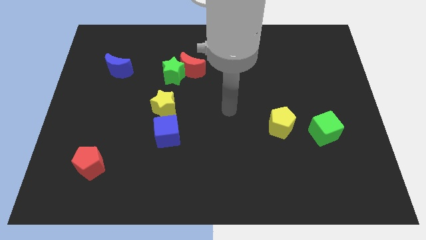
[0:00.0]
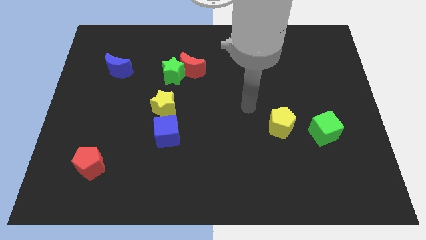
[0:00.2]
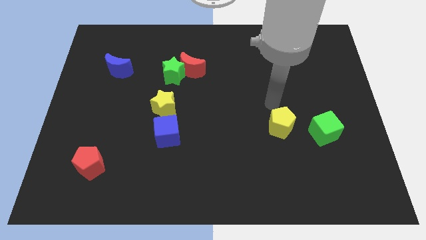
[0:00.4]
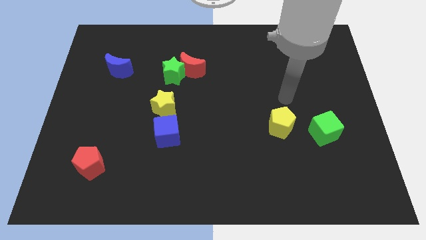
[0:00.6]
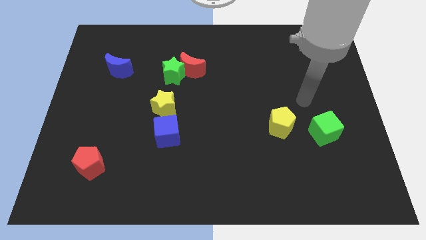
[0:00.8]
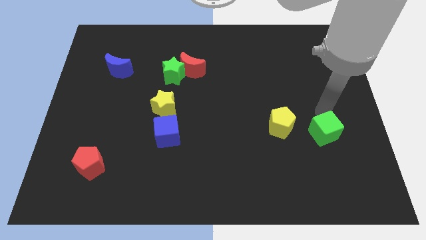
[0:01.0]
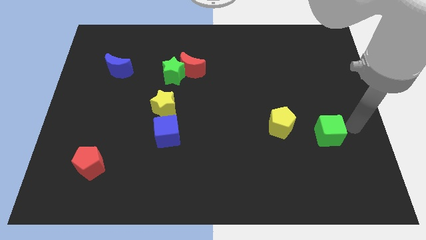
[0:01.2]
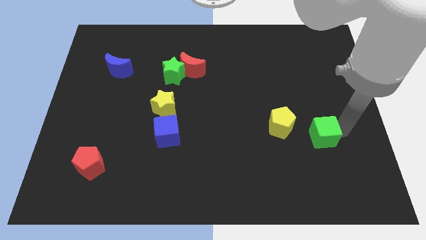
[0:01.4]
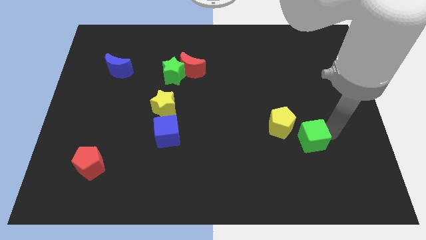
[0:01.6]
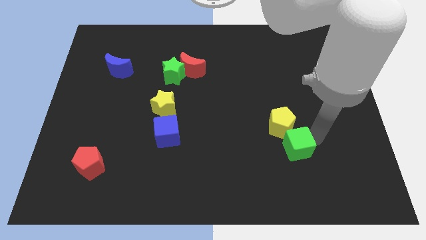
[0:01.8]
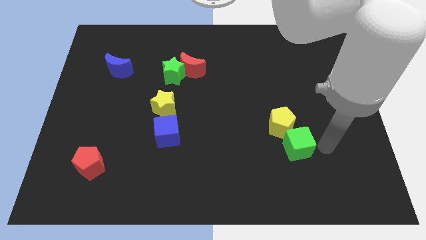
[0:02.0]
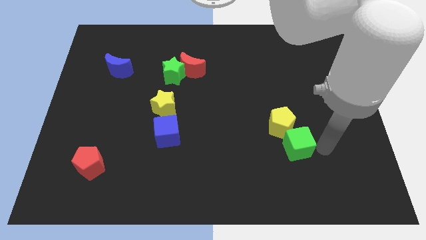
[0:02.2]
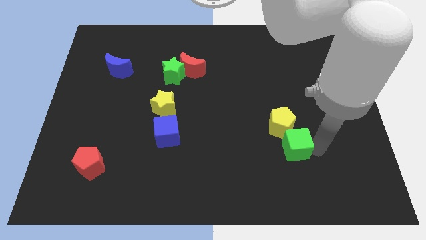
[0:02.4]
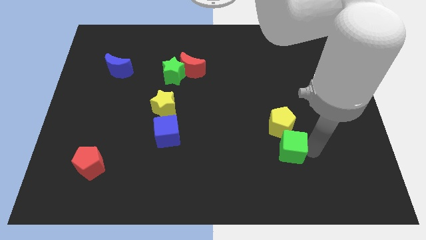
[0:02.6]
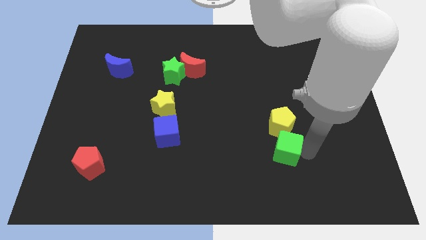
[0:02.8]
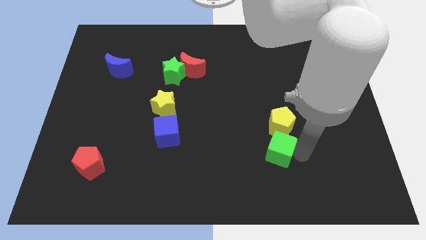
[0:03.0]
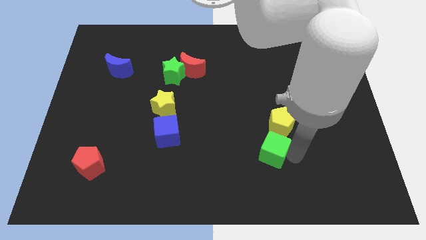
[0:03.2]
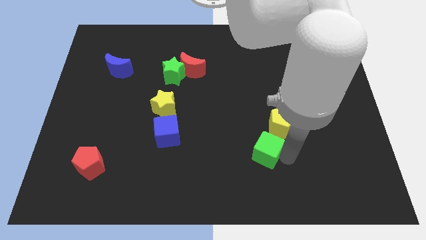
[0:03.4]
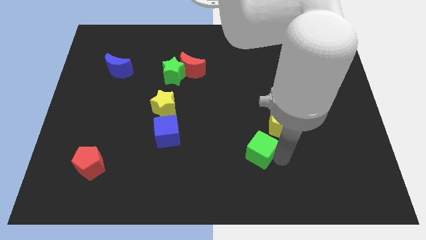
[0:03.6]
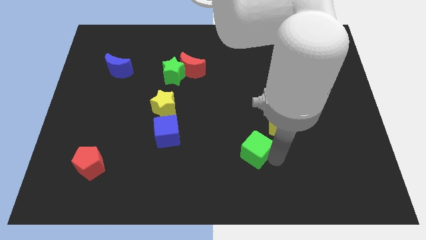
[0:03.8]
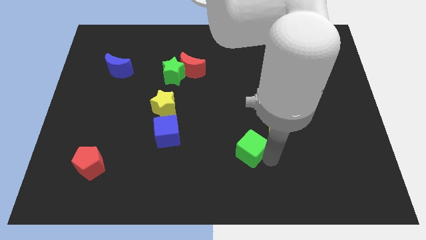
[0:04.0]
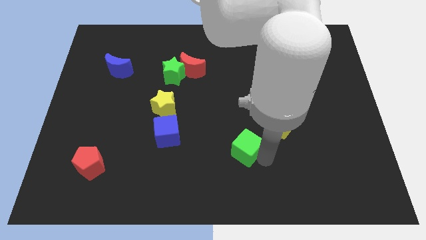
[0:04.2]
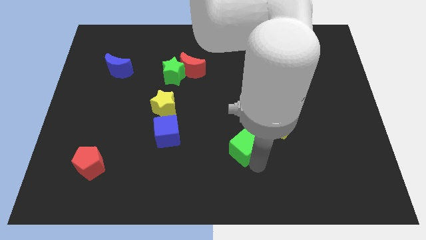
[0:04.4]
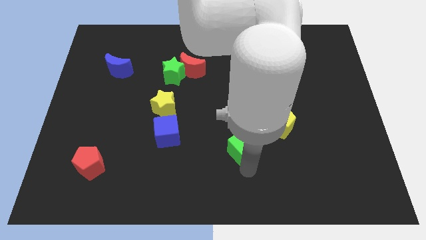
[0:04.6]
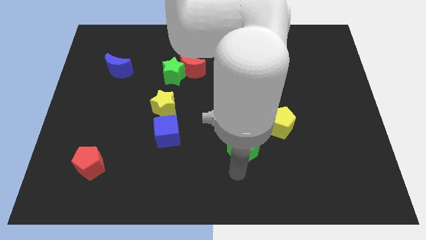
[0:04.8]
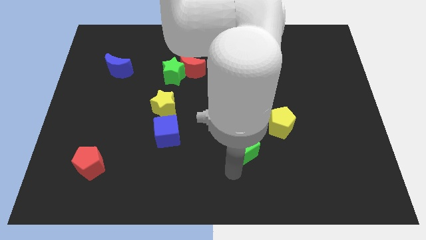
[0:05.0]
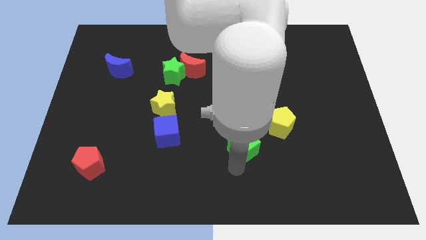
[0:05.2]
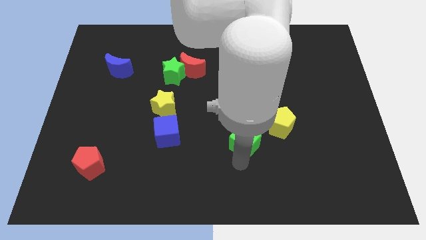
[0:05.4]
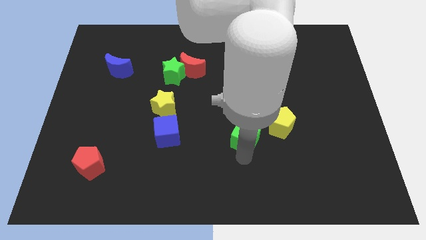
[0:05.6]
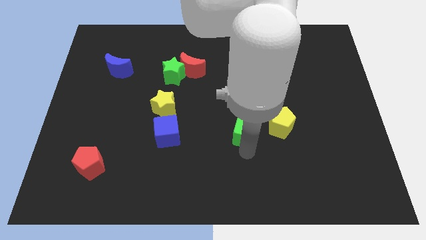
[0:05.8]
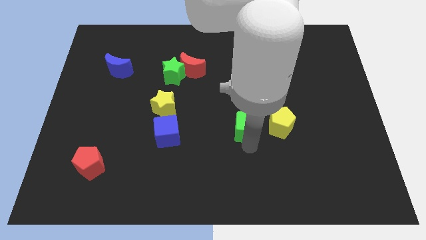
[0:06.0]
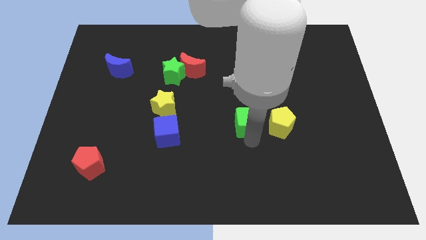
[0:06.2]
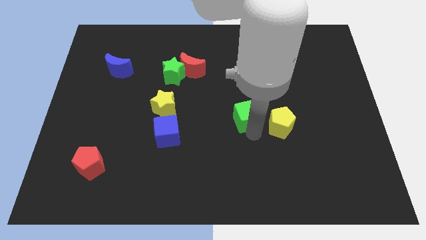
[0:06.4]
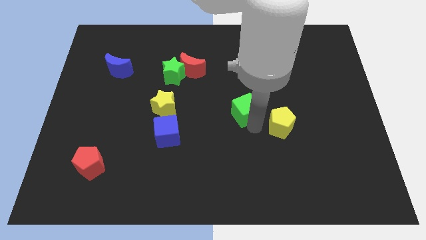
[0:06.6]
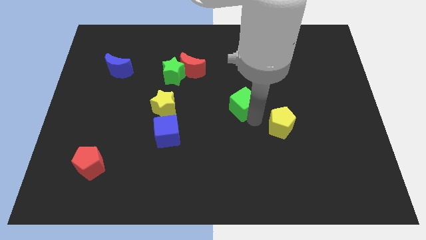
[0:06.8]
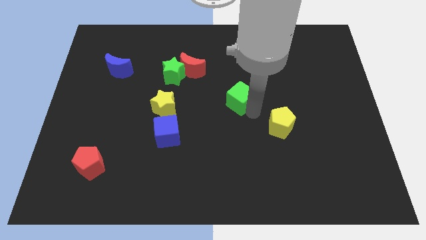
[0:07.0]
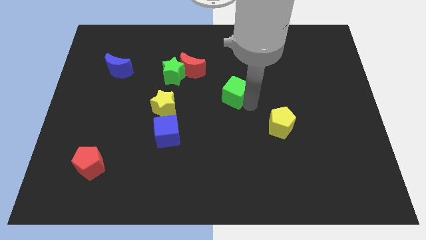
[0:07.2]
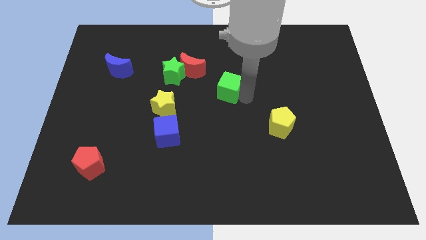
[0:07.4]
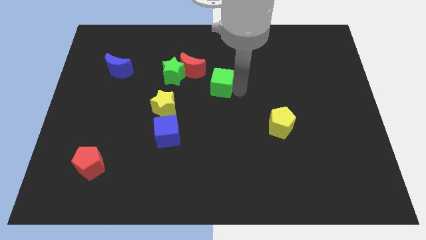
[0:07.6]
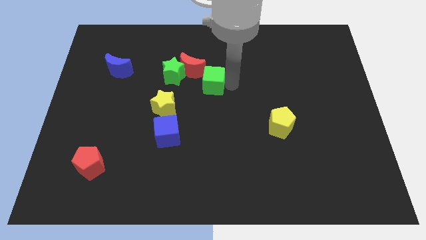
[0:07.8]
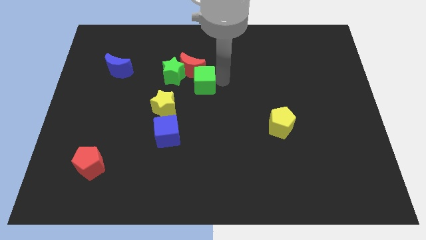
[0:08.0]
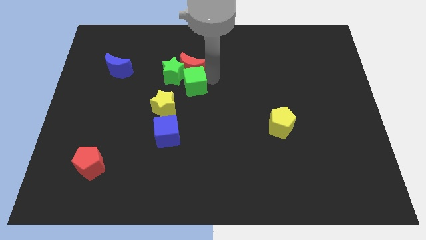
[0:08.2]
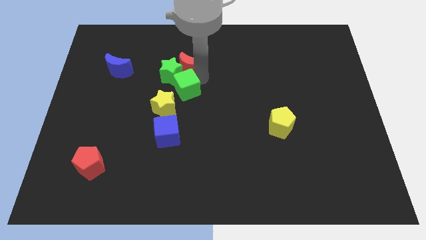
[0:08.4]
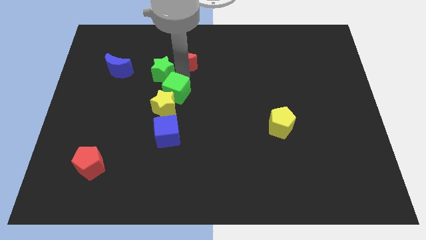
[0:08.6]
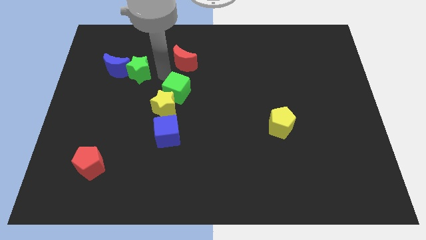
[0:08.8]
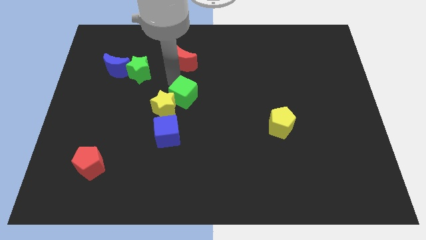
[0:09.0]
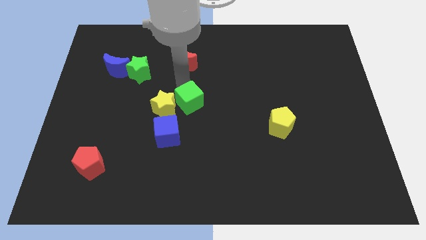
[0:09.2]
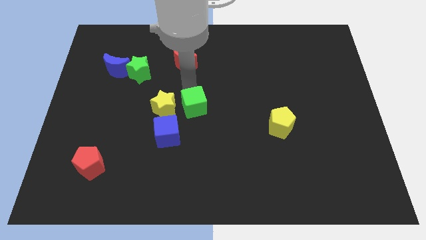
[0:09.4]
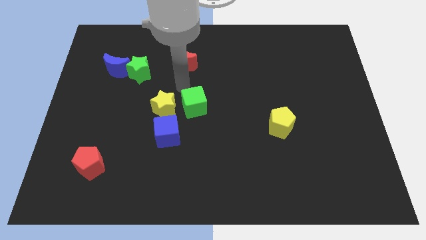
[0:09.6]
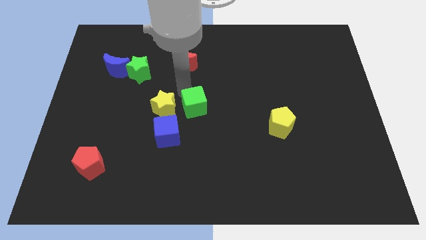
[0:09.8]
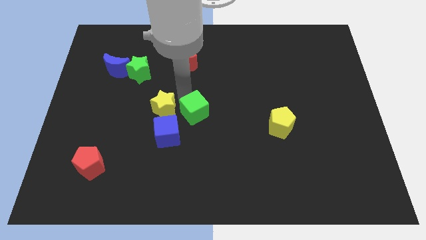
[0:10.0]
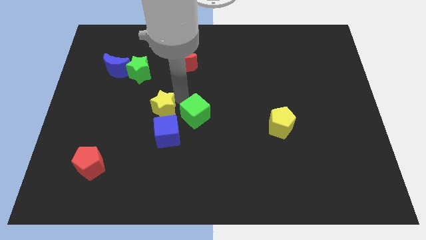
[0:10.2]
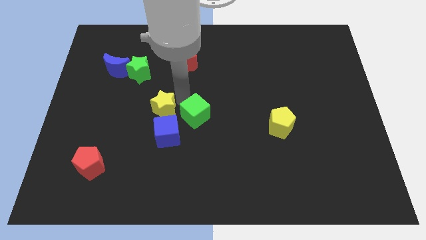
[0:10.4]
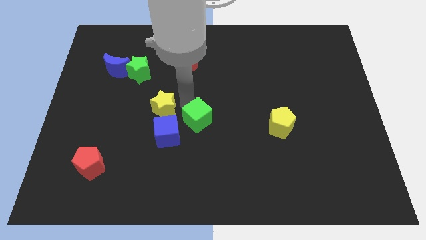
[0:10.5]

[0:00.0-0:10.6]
slide the green cube to the right of the blue cube
